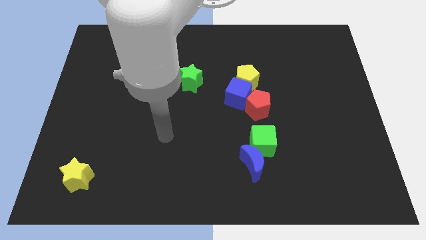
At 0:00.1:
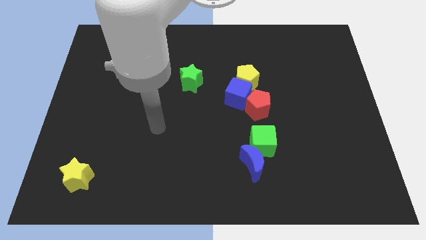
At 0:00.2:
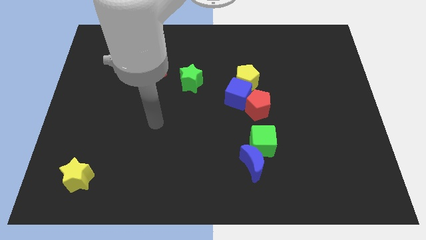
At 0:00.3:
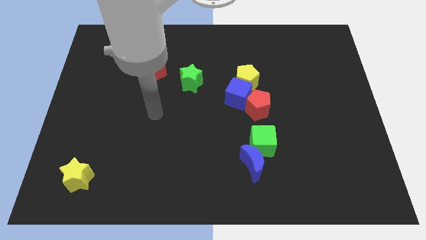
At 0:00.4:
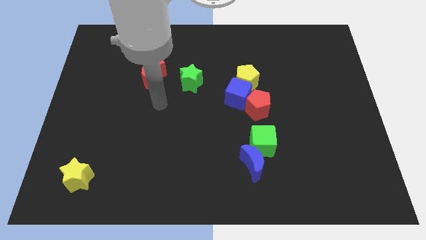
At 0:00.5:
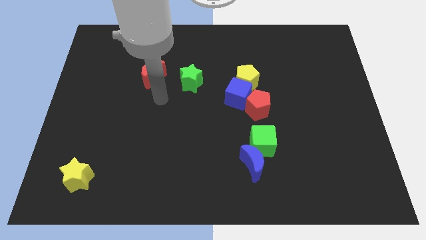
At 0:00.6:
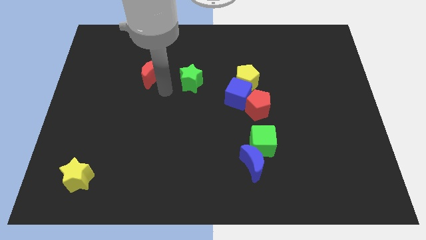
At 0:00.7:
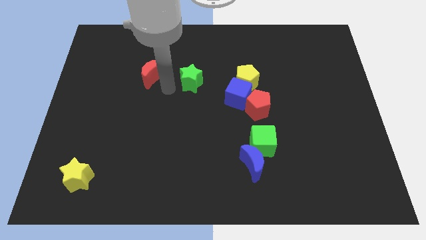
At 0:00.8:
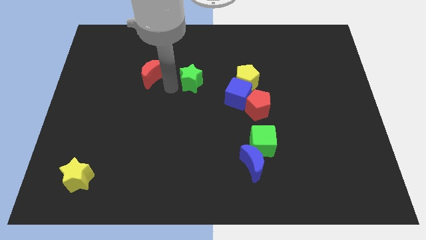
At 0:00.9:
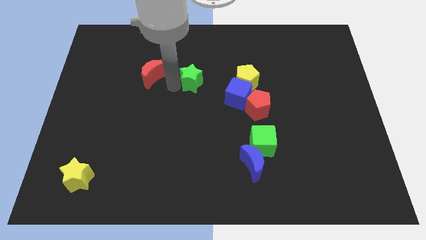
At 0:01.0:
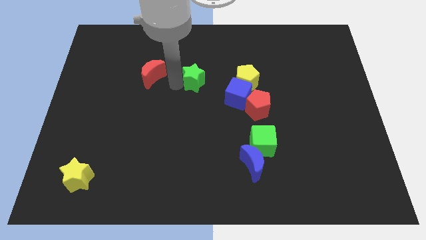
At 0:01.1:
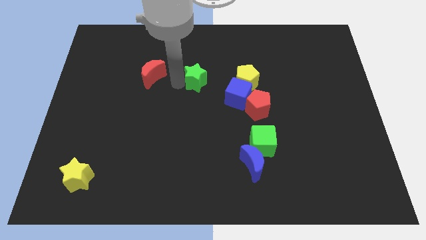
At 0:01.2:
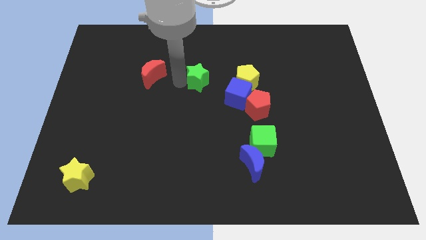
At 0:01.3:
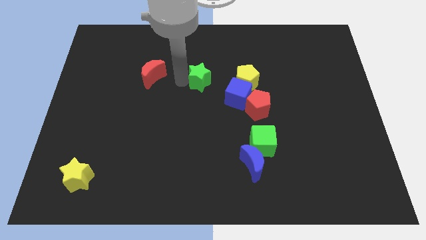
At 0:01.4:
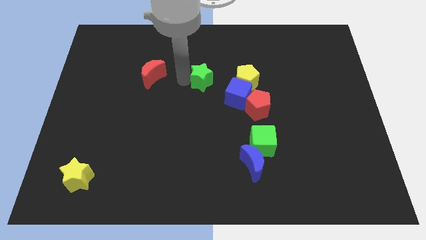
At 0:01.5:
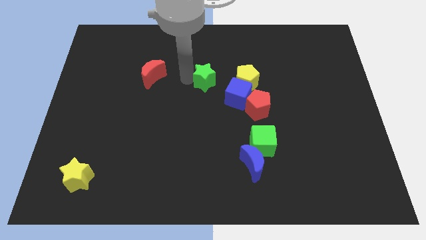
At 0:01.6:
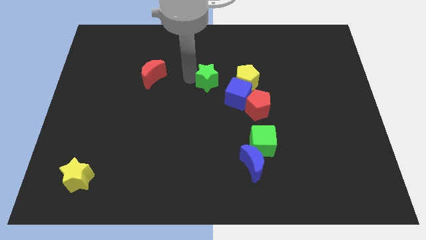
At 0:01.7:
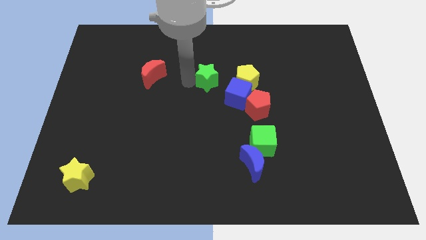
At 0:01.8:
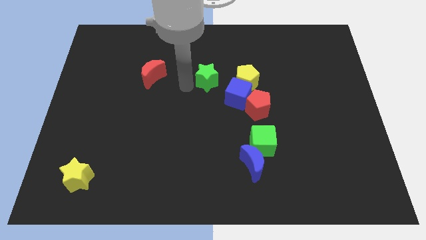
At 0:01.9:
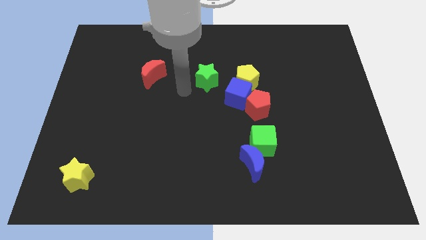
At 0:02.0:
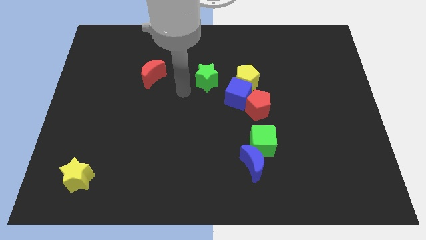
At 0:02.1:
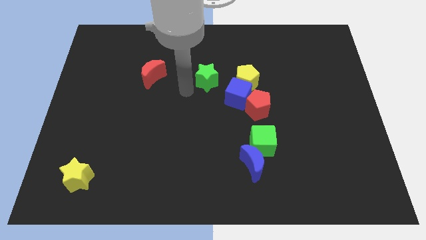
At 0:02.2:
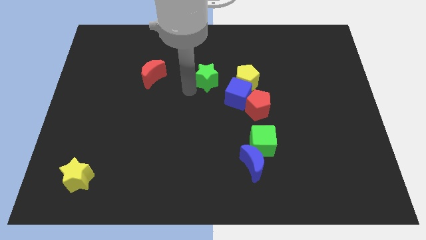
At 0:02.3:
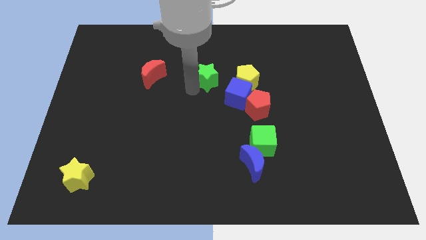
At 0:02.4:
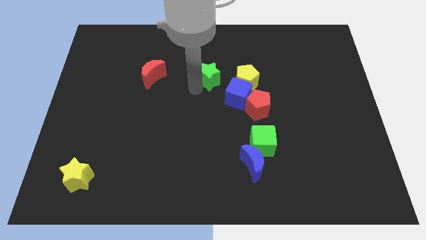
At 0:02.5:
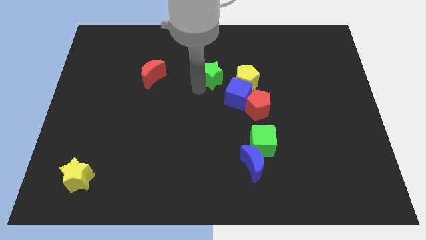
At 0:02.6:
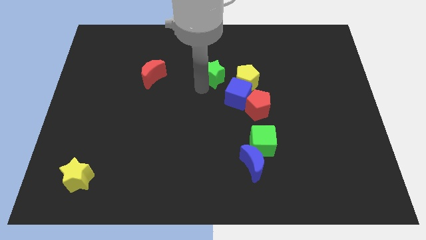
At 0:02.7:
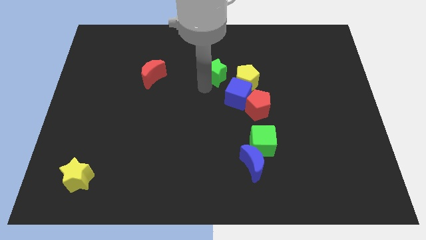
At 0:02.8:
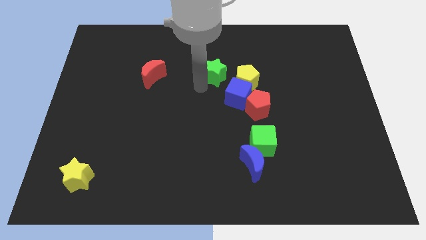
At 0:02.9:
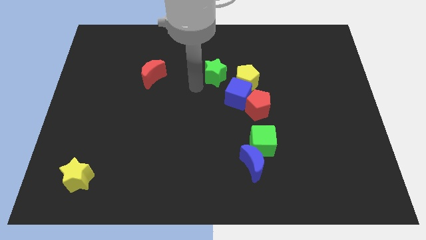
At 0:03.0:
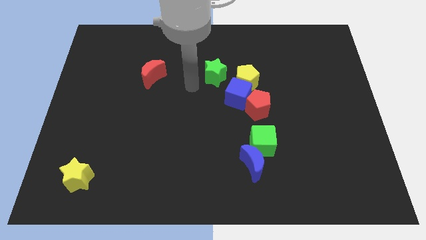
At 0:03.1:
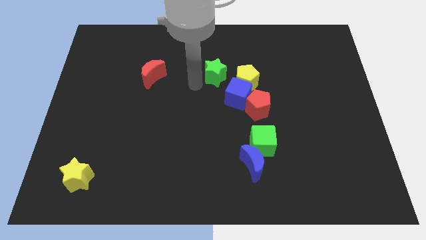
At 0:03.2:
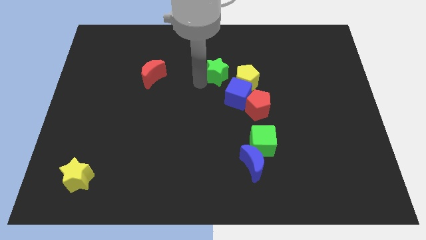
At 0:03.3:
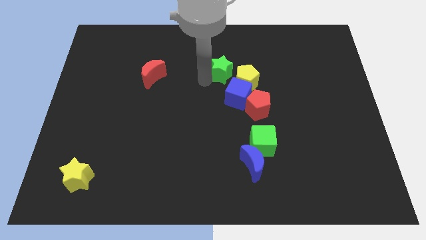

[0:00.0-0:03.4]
slightly push the green star right

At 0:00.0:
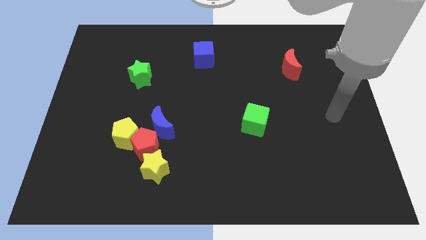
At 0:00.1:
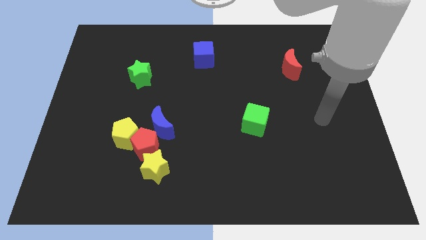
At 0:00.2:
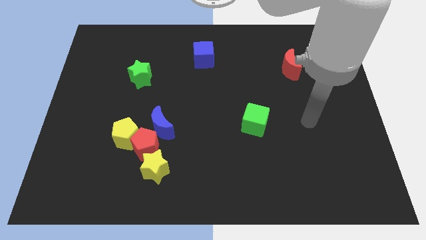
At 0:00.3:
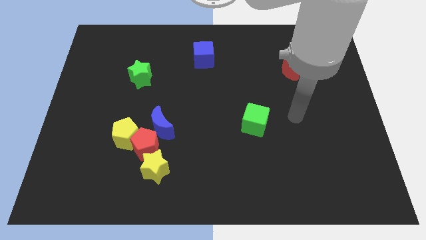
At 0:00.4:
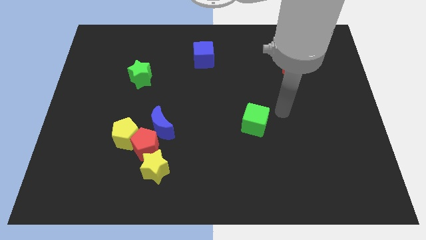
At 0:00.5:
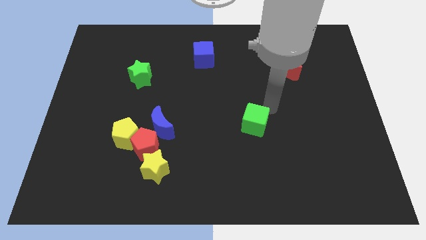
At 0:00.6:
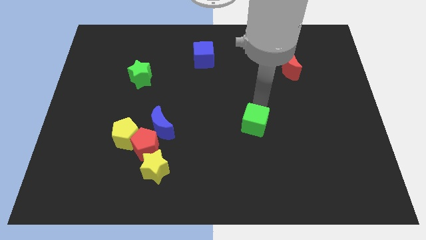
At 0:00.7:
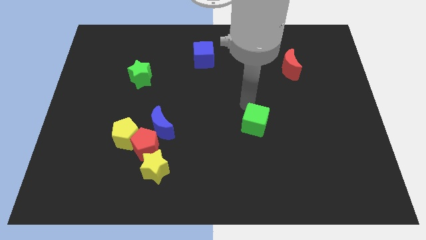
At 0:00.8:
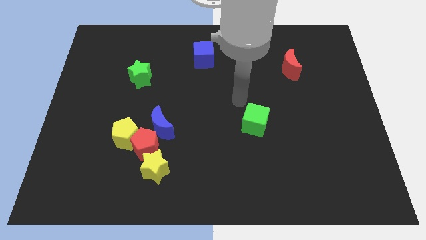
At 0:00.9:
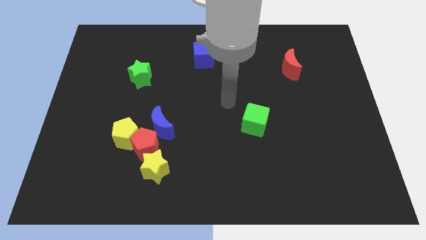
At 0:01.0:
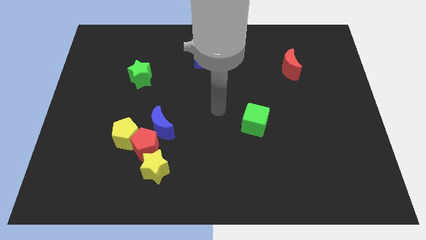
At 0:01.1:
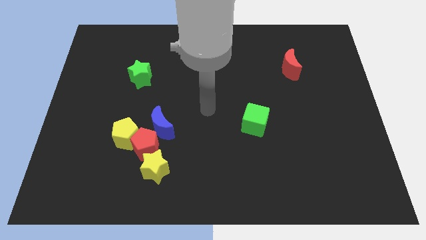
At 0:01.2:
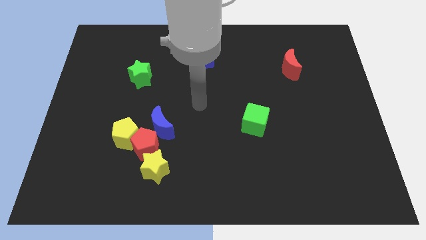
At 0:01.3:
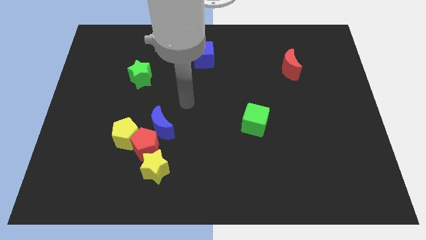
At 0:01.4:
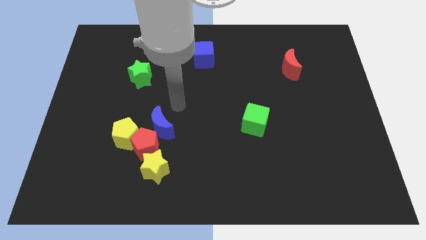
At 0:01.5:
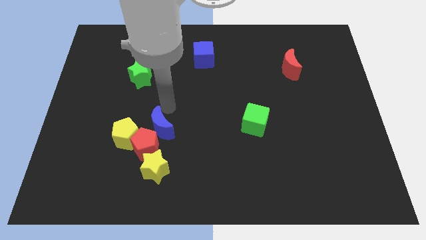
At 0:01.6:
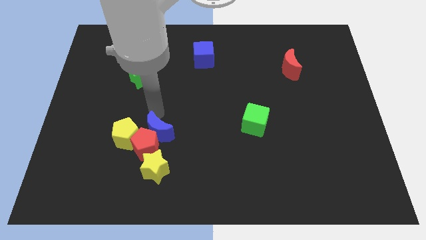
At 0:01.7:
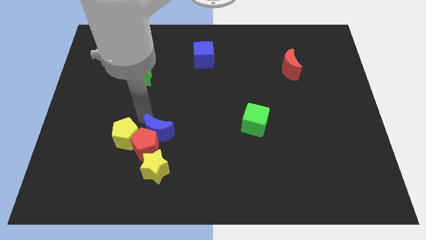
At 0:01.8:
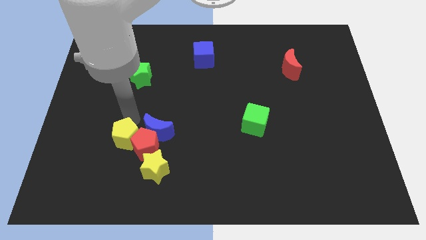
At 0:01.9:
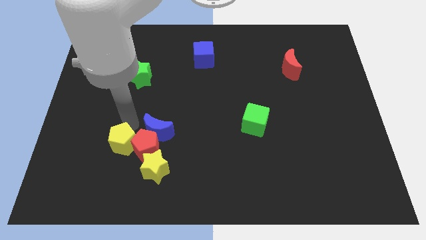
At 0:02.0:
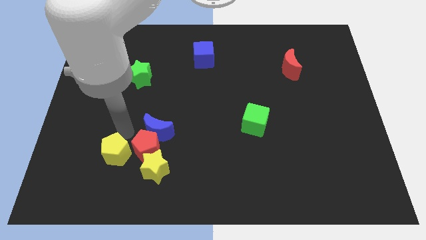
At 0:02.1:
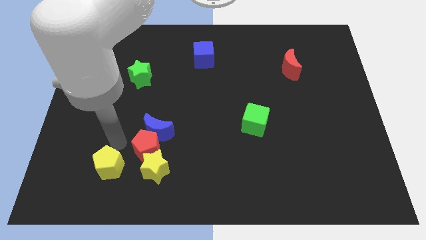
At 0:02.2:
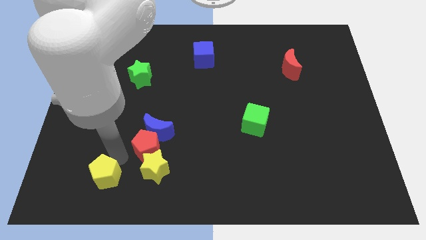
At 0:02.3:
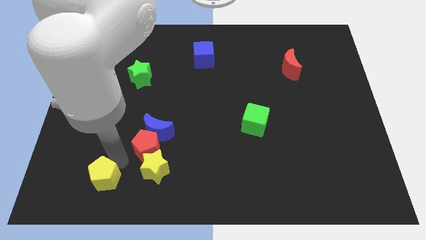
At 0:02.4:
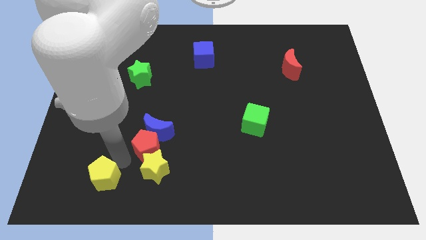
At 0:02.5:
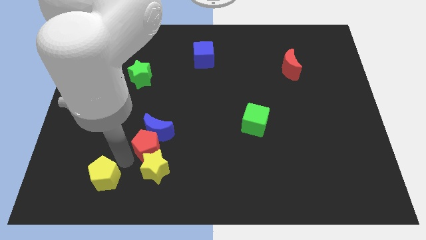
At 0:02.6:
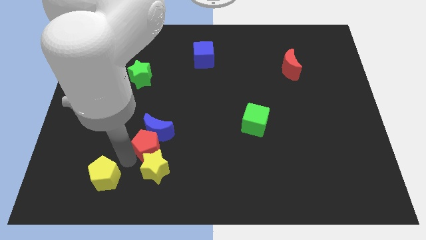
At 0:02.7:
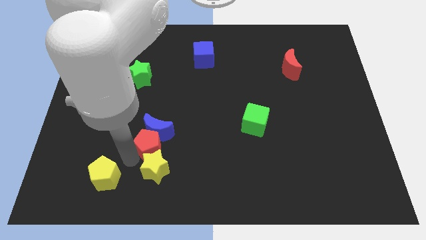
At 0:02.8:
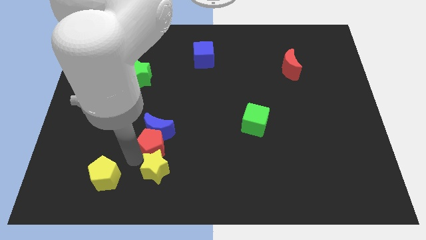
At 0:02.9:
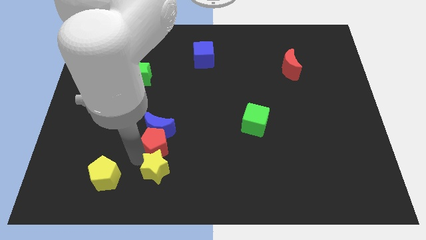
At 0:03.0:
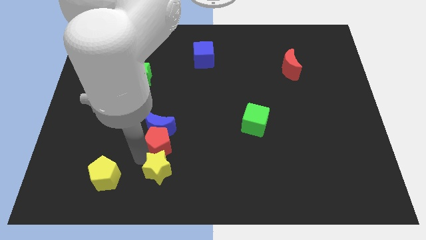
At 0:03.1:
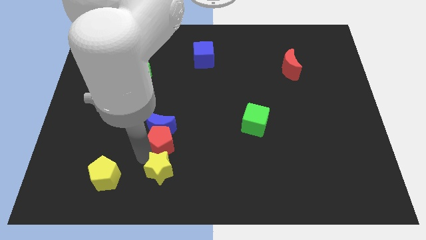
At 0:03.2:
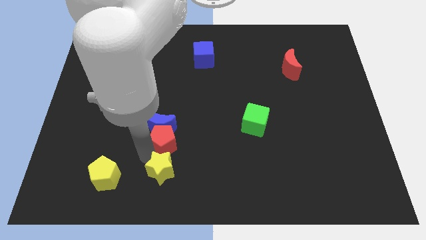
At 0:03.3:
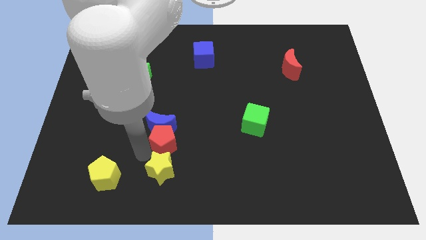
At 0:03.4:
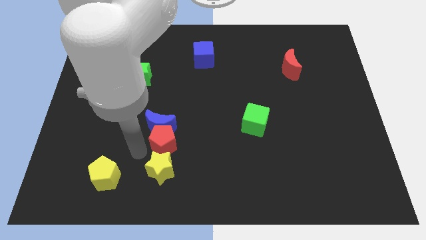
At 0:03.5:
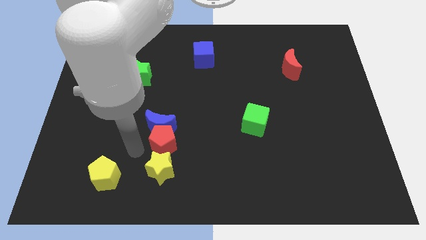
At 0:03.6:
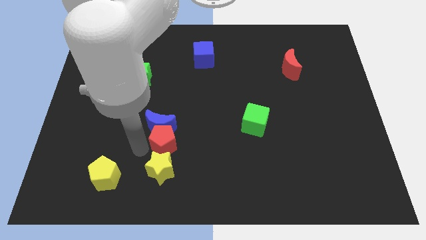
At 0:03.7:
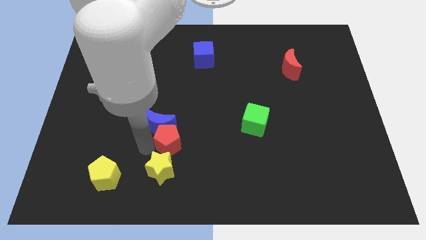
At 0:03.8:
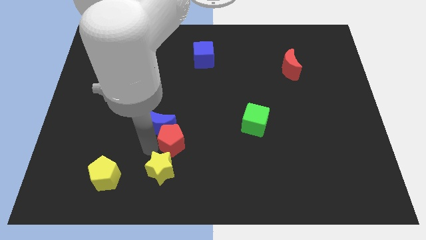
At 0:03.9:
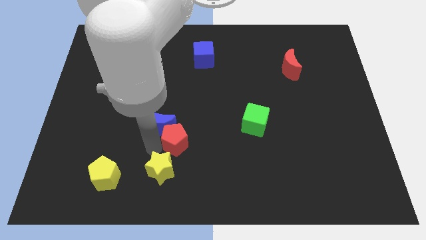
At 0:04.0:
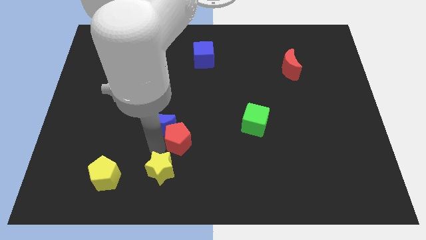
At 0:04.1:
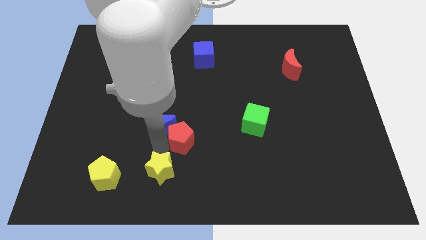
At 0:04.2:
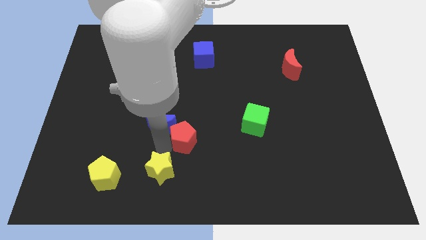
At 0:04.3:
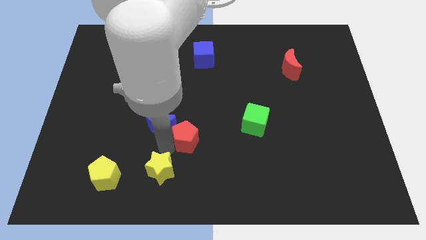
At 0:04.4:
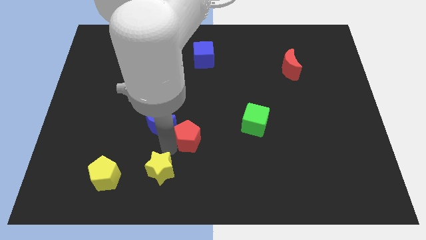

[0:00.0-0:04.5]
slide the red pentagon upwards and then to the right slightly

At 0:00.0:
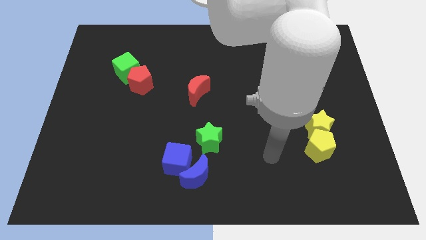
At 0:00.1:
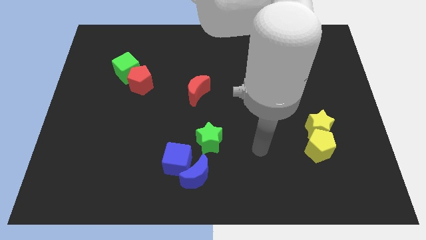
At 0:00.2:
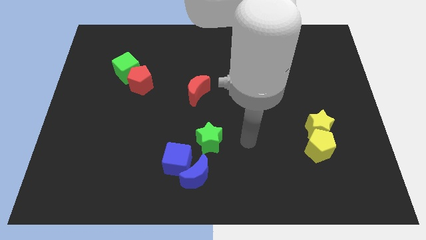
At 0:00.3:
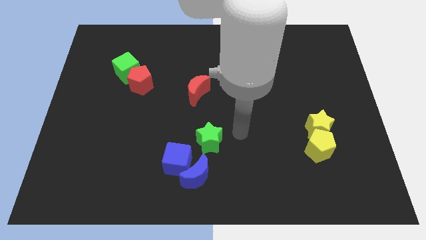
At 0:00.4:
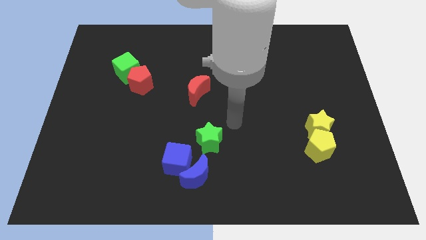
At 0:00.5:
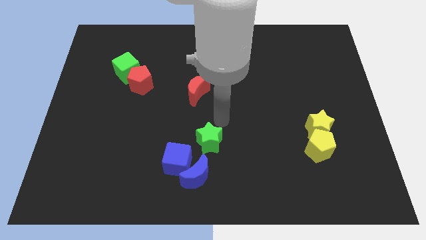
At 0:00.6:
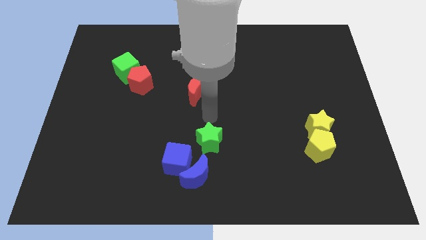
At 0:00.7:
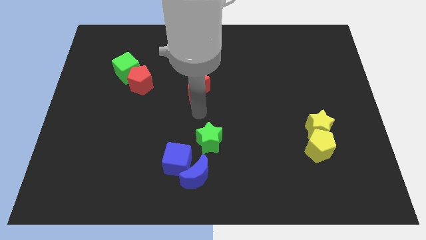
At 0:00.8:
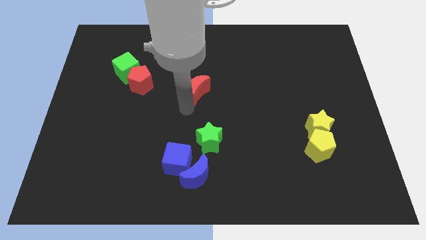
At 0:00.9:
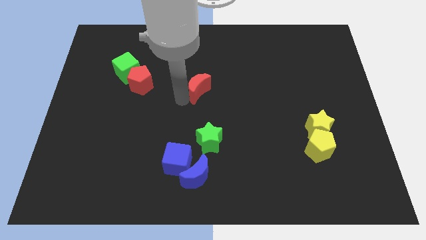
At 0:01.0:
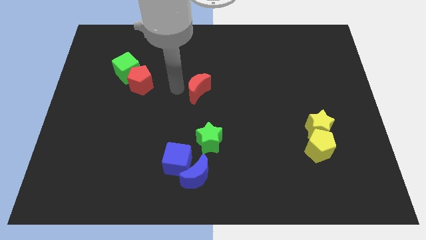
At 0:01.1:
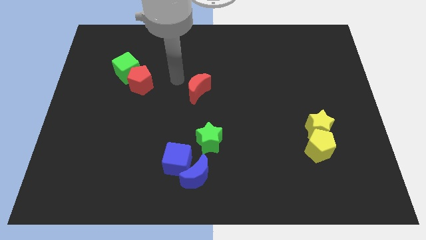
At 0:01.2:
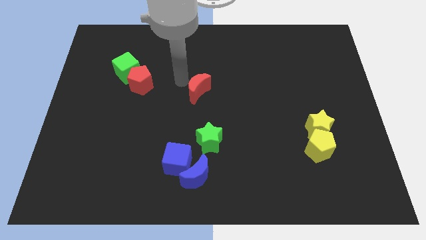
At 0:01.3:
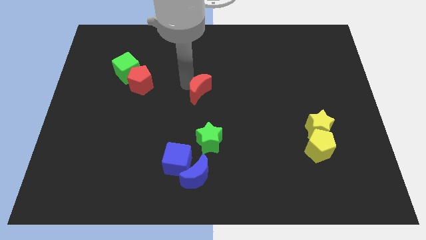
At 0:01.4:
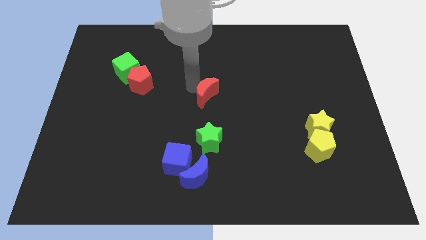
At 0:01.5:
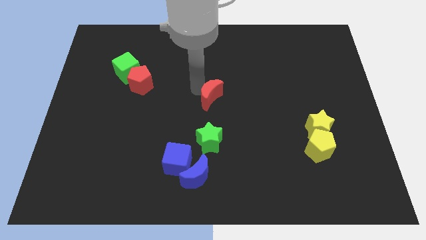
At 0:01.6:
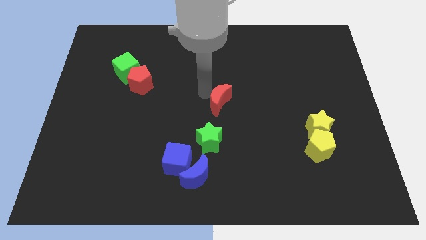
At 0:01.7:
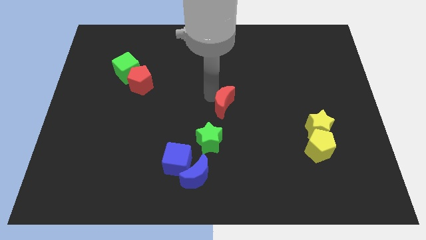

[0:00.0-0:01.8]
slightly move the red moon diagonally down and right
